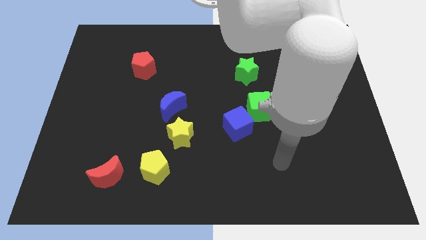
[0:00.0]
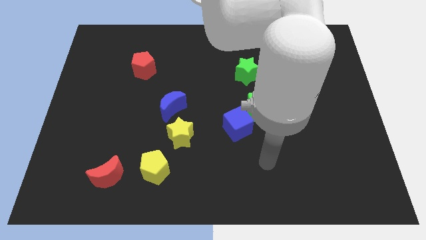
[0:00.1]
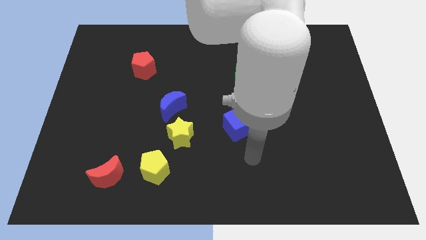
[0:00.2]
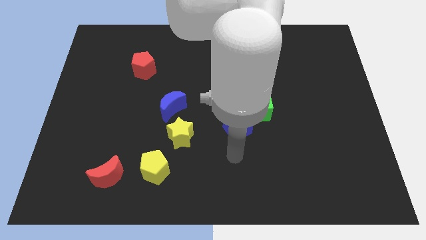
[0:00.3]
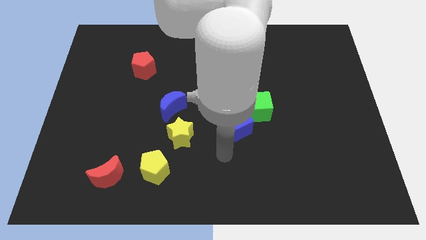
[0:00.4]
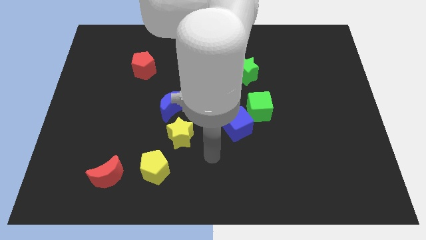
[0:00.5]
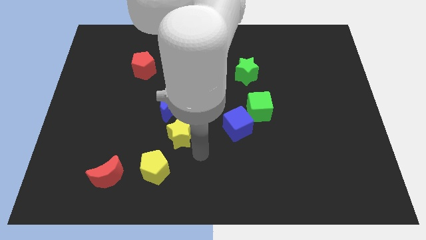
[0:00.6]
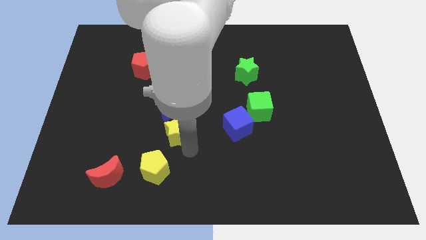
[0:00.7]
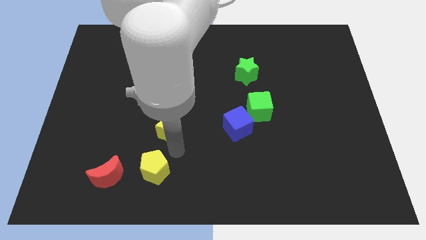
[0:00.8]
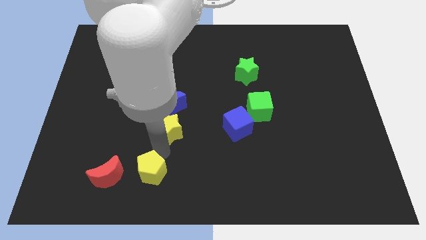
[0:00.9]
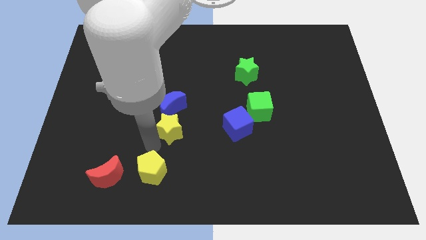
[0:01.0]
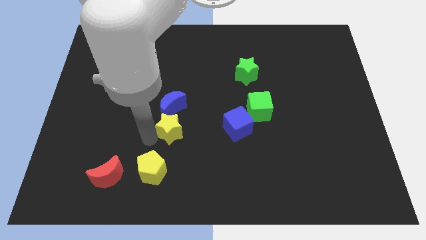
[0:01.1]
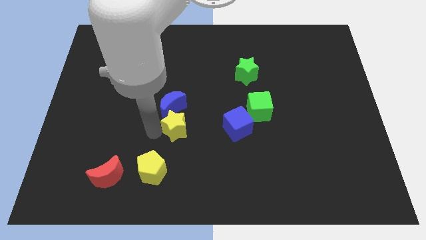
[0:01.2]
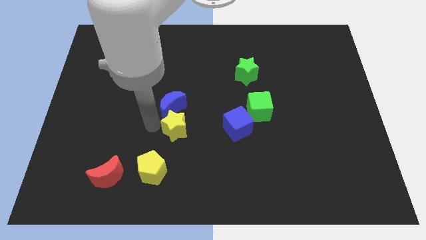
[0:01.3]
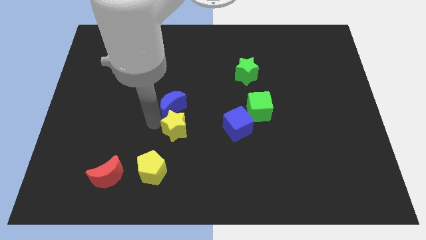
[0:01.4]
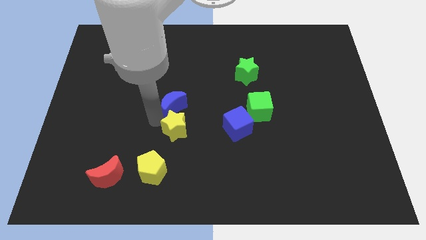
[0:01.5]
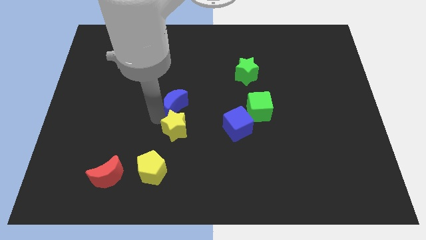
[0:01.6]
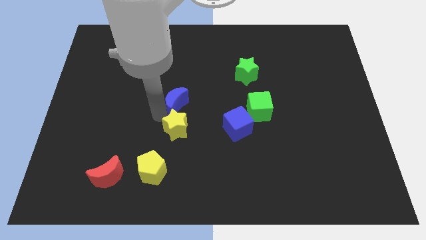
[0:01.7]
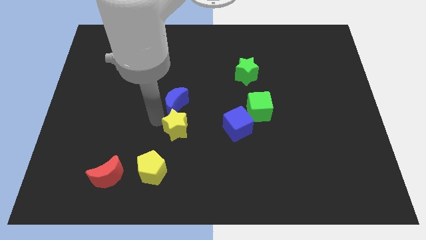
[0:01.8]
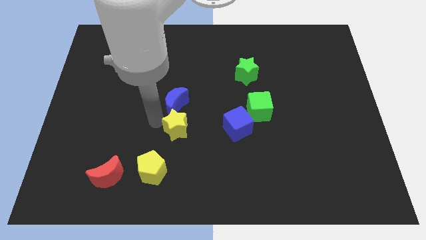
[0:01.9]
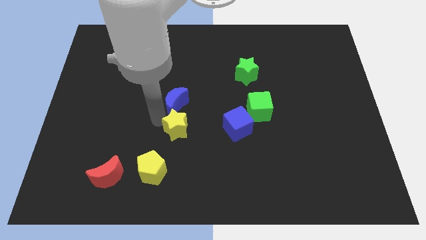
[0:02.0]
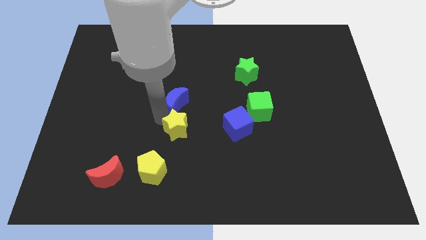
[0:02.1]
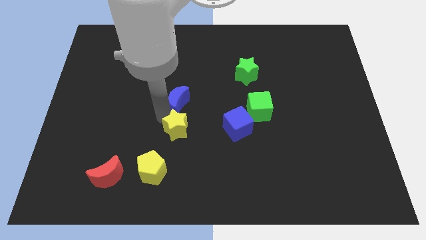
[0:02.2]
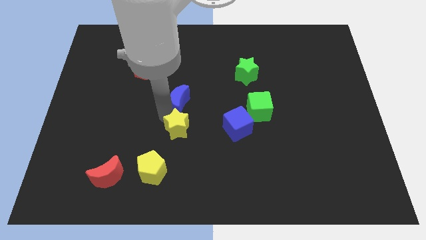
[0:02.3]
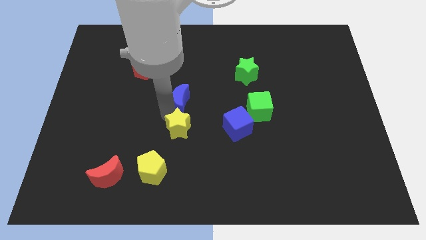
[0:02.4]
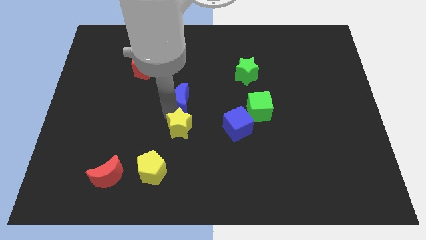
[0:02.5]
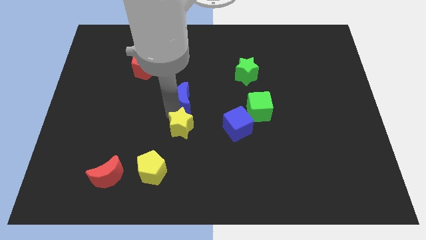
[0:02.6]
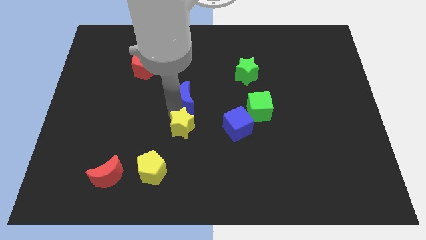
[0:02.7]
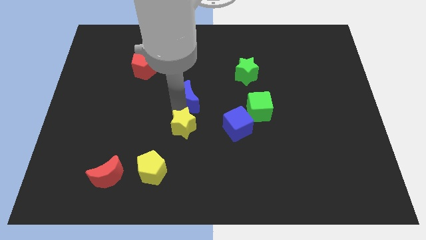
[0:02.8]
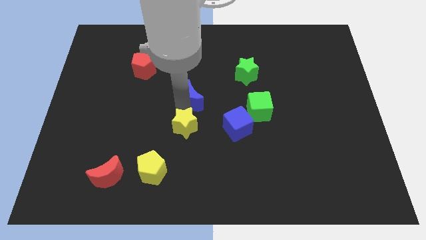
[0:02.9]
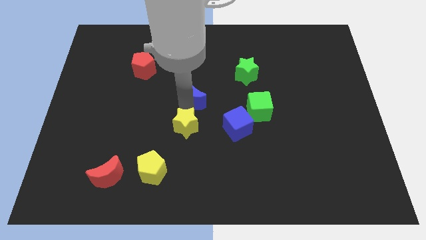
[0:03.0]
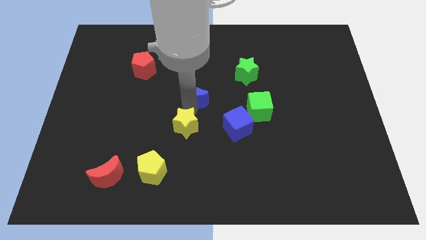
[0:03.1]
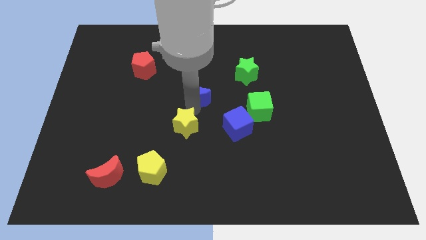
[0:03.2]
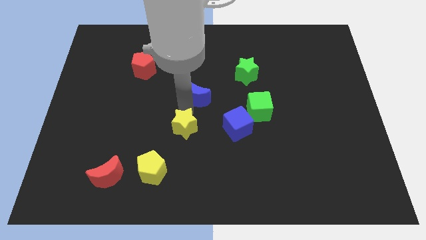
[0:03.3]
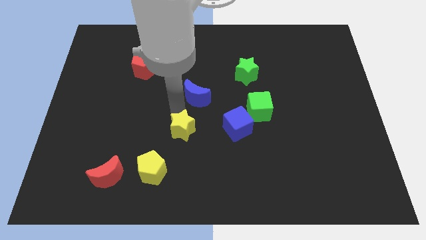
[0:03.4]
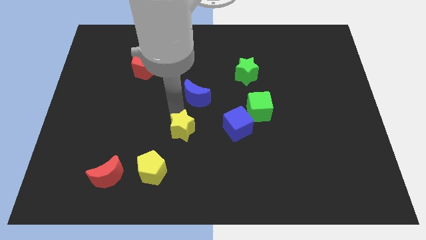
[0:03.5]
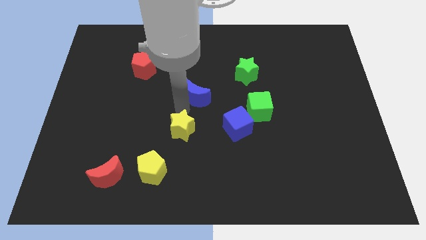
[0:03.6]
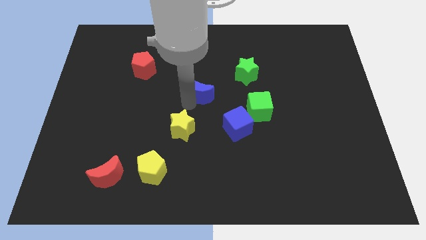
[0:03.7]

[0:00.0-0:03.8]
slightly push the blue moon up and to the right diagonally

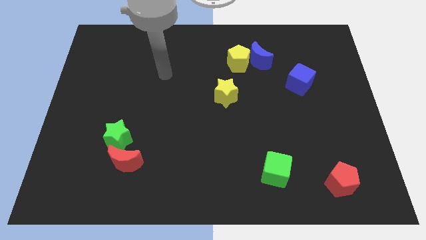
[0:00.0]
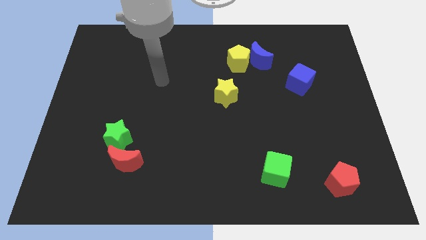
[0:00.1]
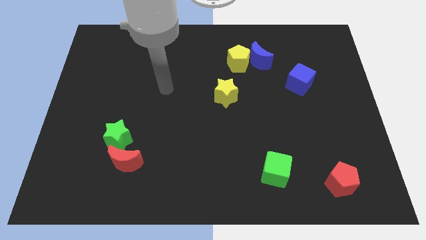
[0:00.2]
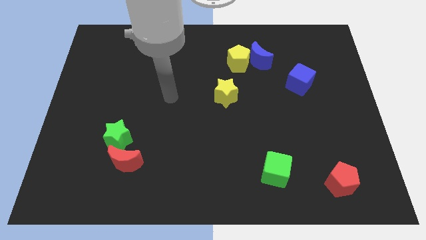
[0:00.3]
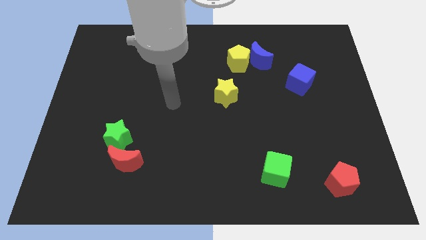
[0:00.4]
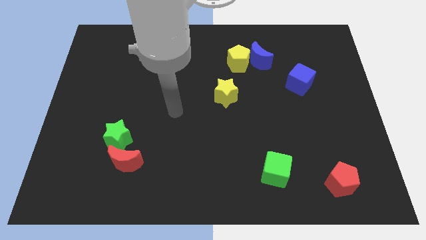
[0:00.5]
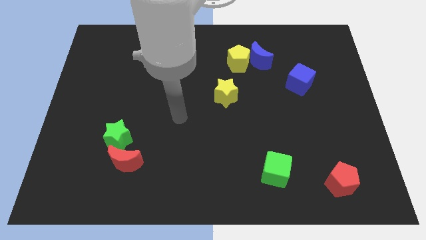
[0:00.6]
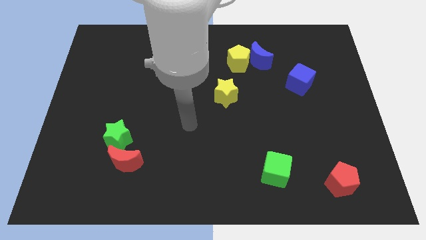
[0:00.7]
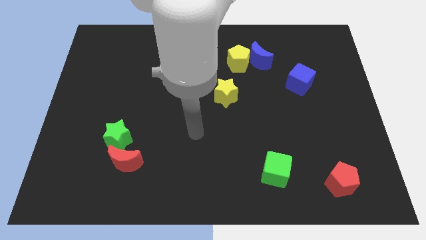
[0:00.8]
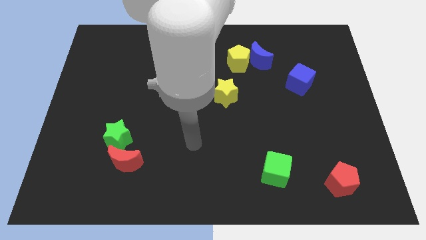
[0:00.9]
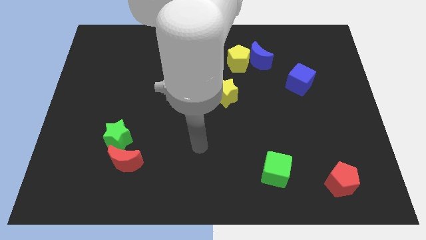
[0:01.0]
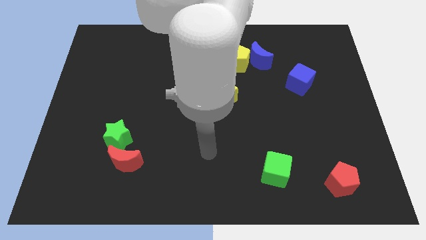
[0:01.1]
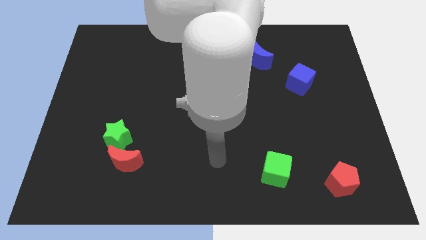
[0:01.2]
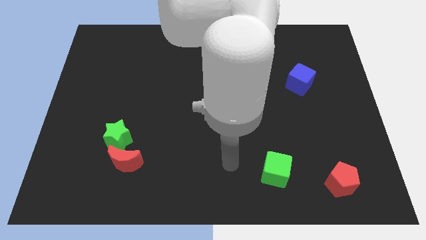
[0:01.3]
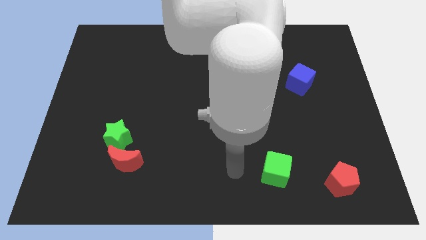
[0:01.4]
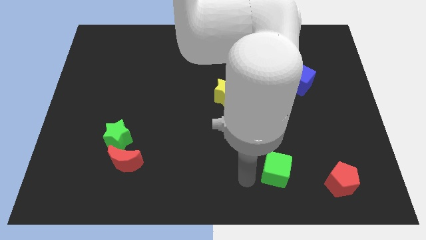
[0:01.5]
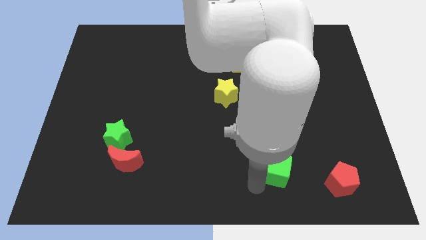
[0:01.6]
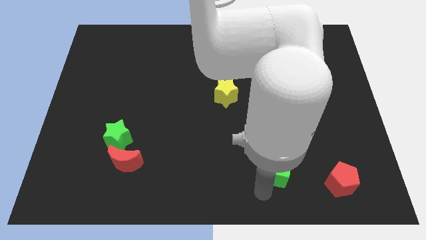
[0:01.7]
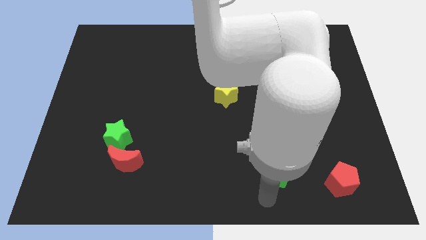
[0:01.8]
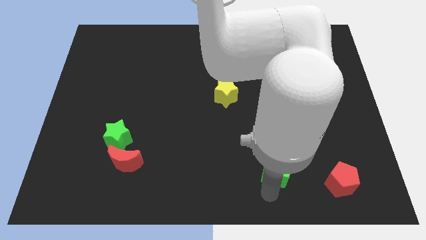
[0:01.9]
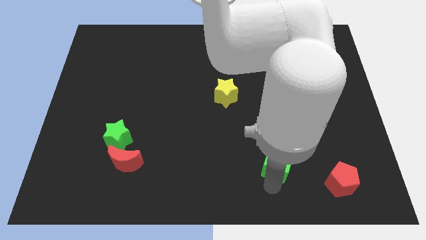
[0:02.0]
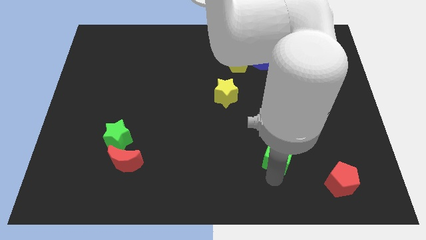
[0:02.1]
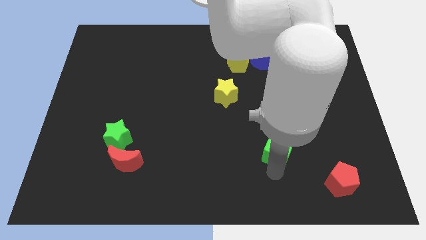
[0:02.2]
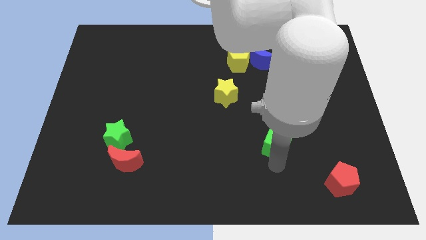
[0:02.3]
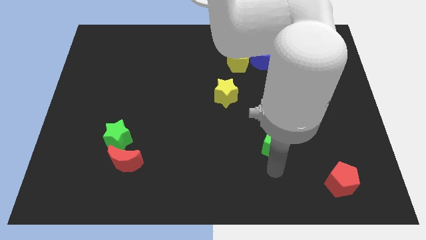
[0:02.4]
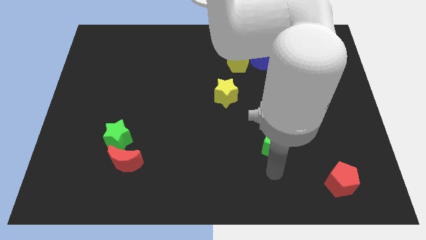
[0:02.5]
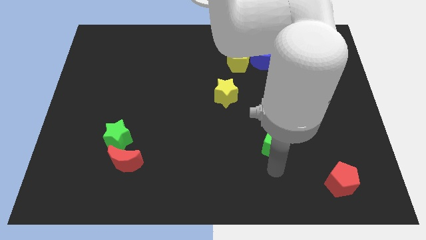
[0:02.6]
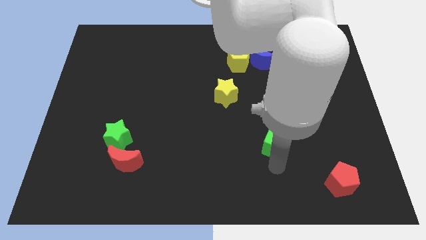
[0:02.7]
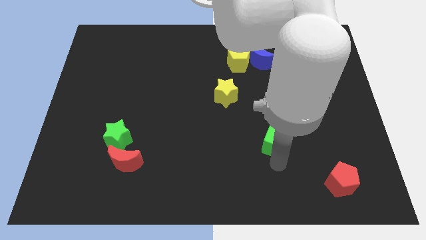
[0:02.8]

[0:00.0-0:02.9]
push the green cube somewhat upwards

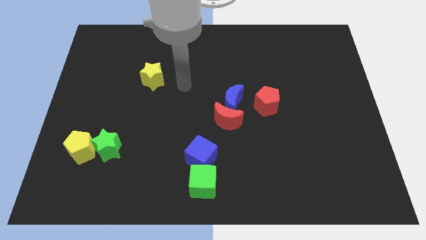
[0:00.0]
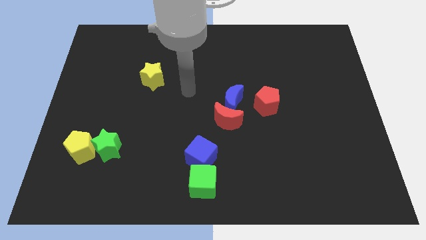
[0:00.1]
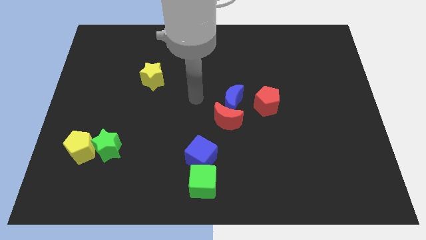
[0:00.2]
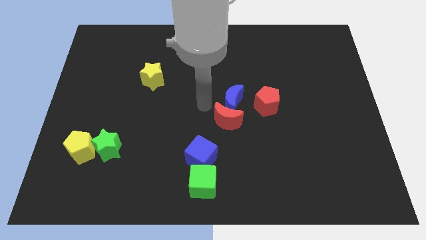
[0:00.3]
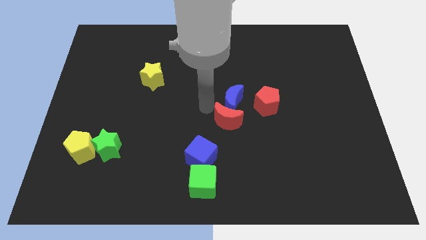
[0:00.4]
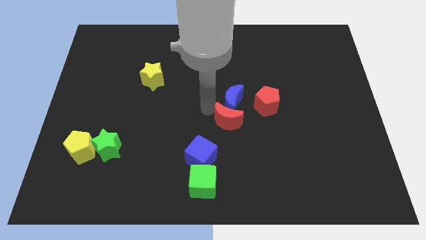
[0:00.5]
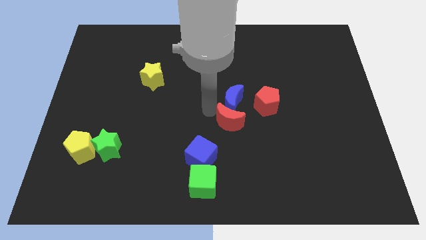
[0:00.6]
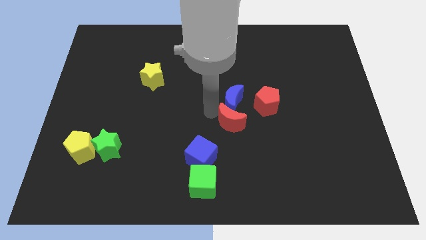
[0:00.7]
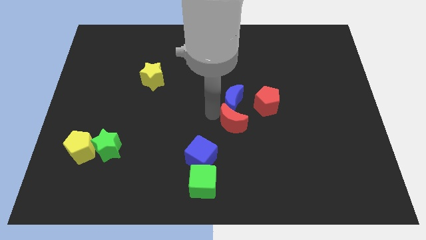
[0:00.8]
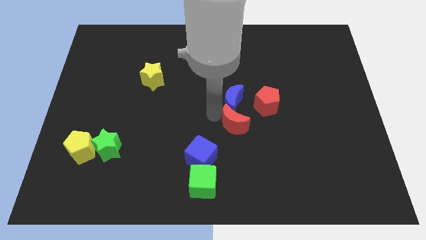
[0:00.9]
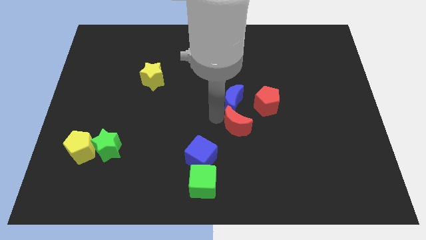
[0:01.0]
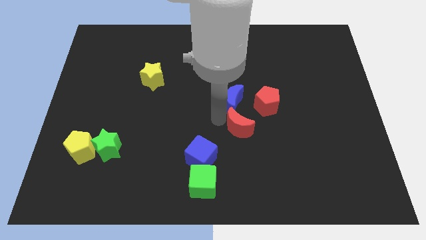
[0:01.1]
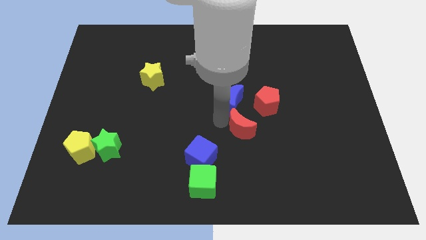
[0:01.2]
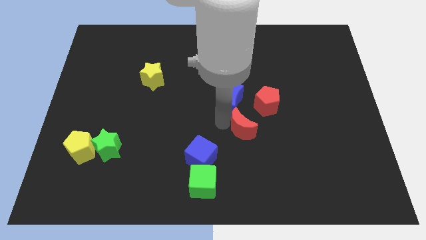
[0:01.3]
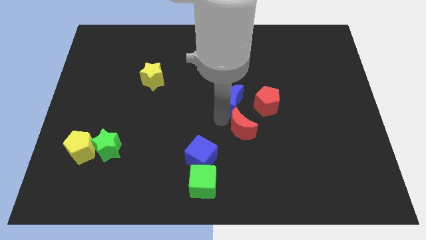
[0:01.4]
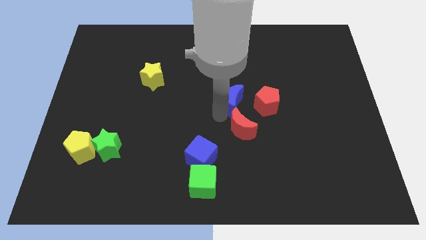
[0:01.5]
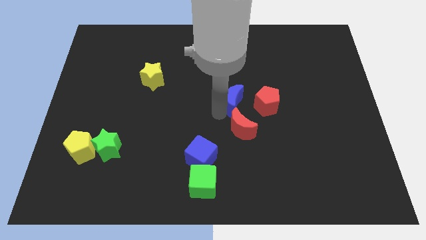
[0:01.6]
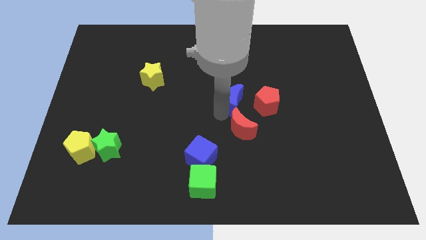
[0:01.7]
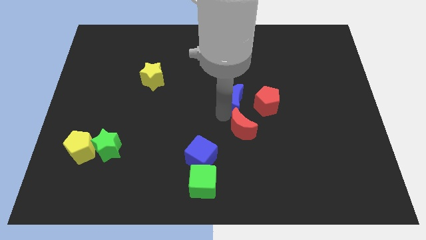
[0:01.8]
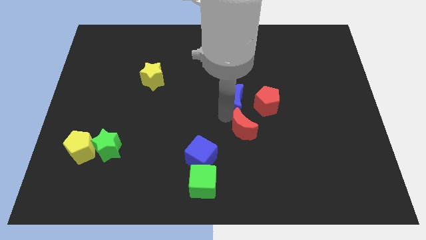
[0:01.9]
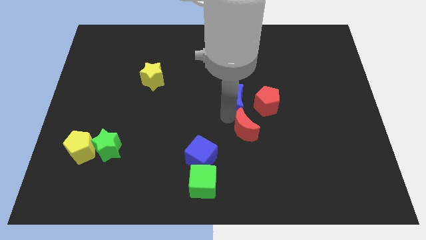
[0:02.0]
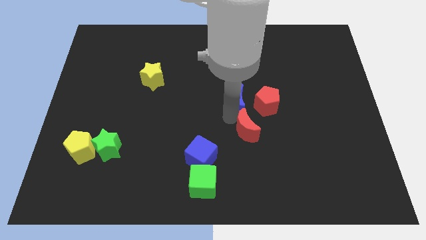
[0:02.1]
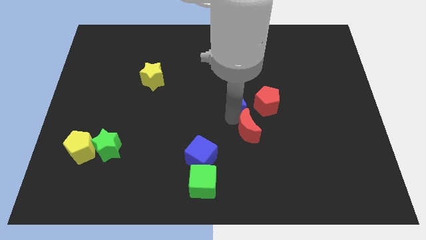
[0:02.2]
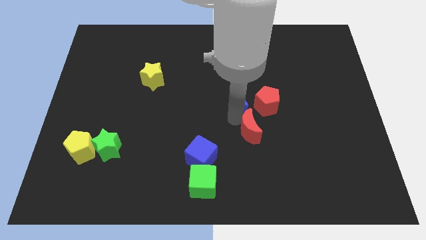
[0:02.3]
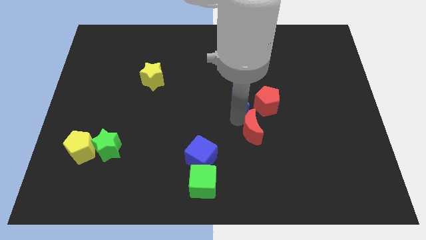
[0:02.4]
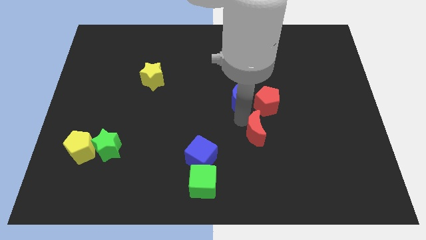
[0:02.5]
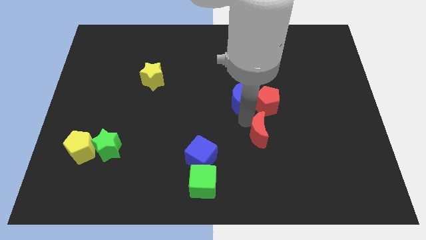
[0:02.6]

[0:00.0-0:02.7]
slide the red moon diagonally downwards and to the right slightly
